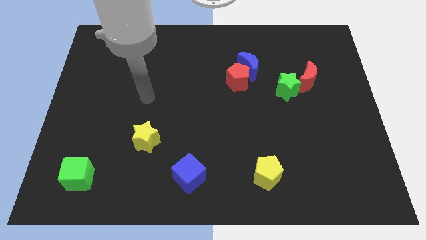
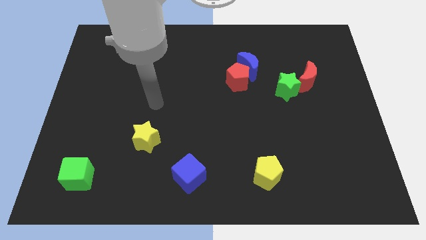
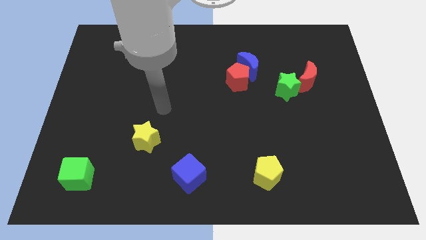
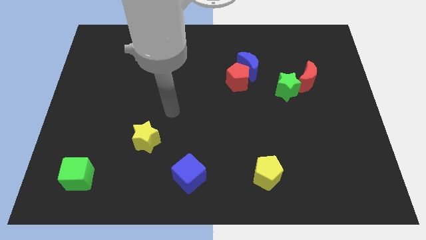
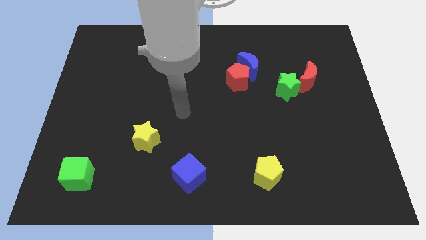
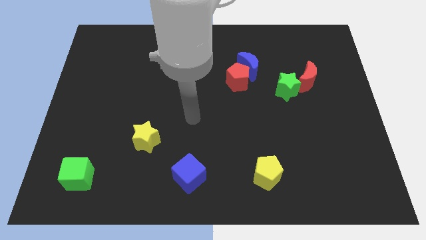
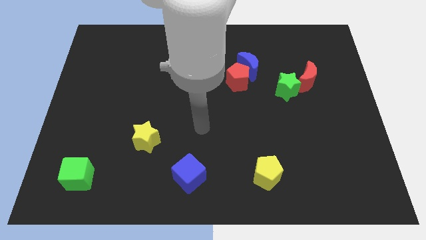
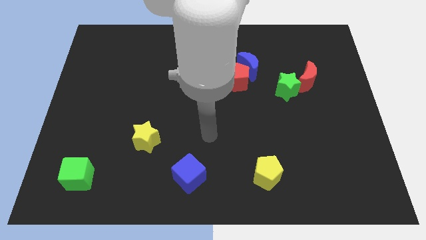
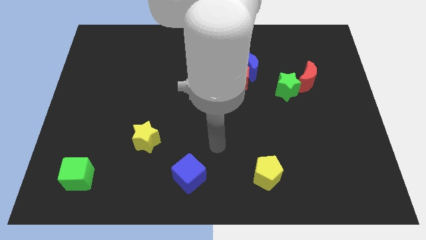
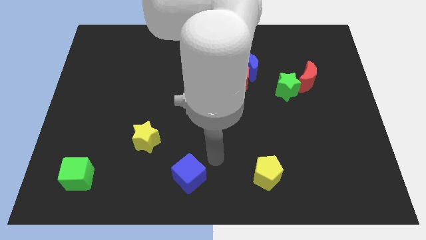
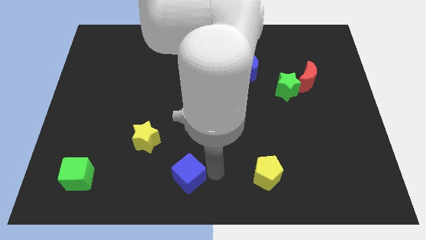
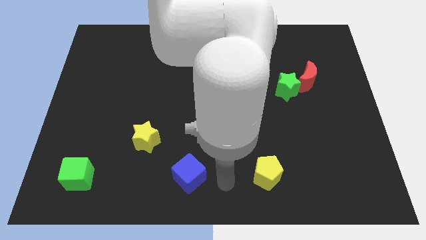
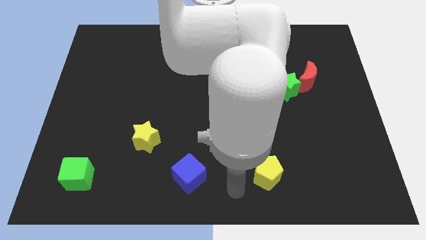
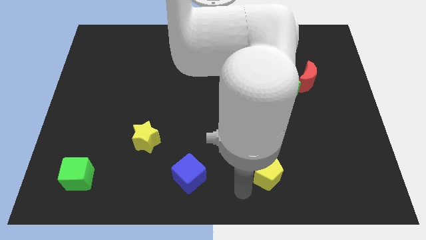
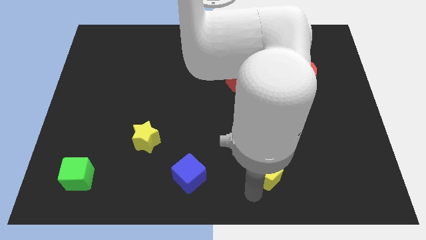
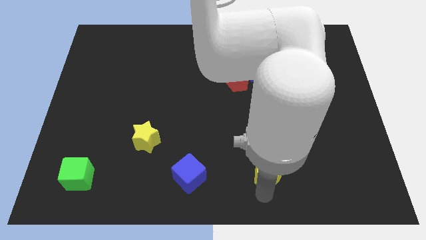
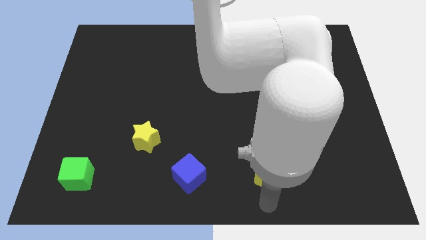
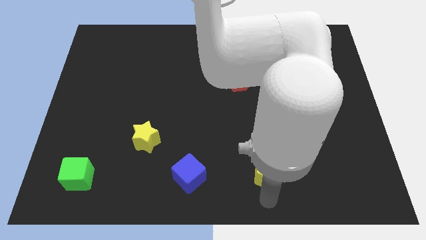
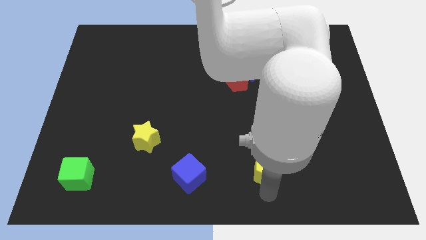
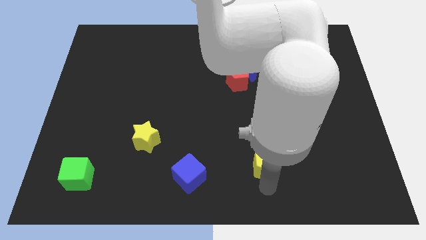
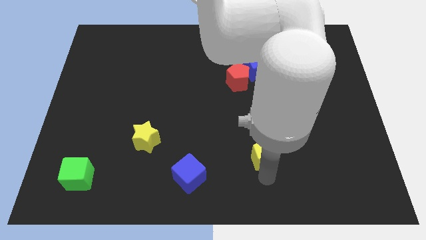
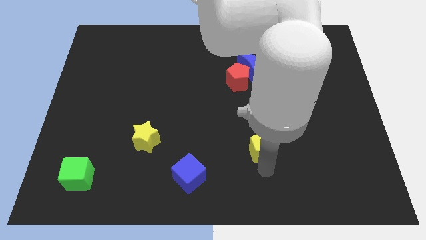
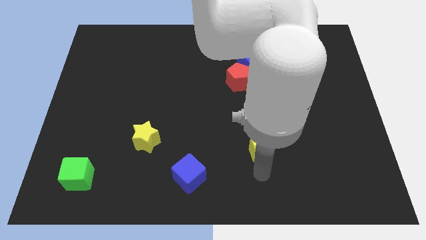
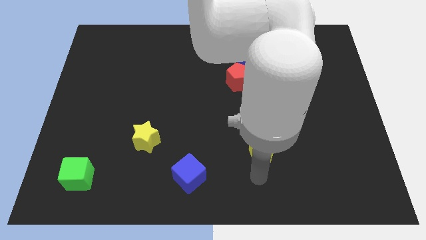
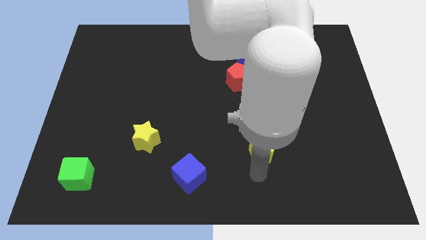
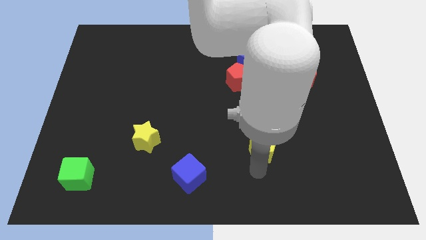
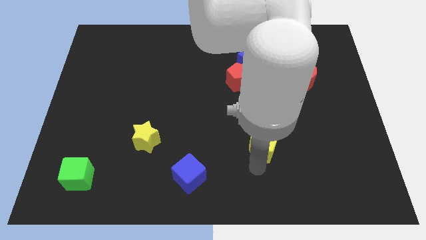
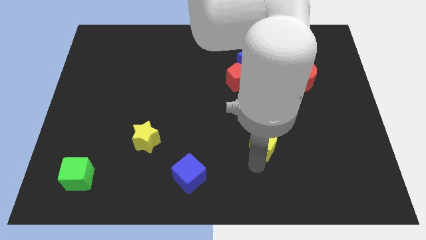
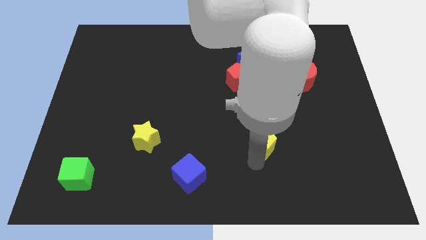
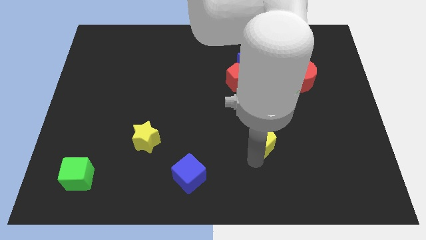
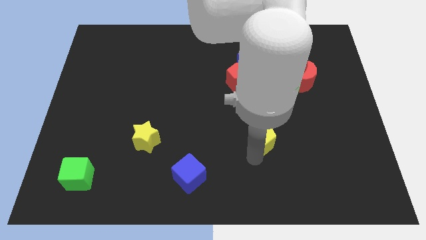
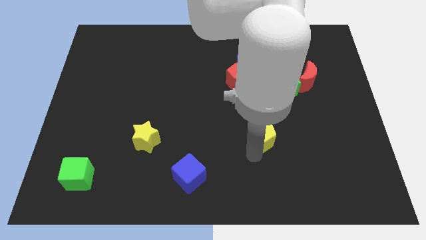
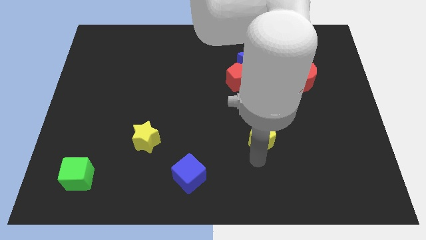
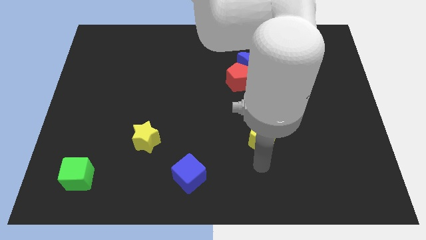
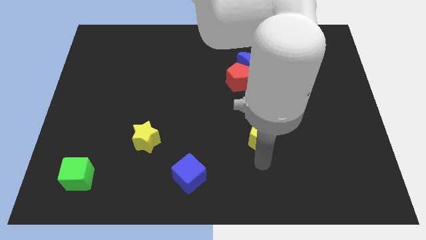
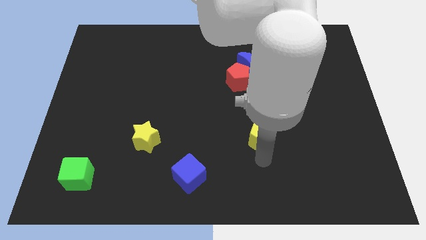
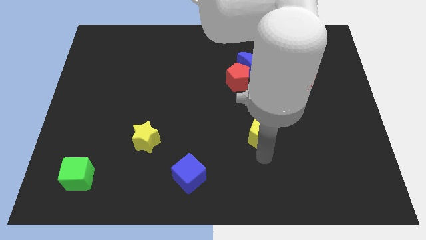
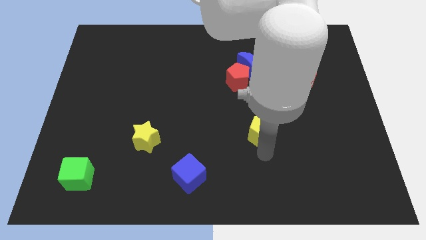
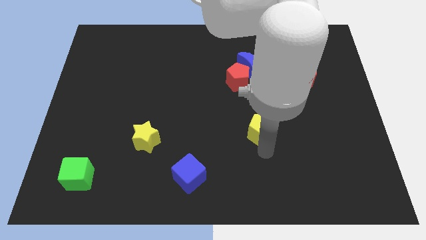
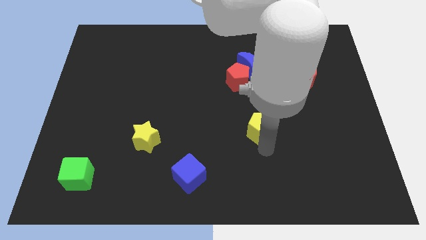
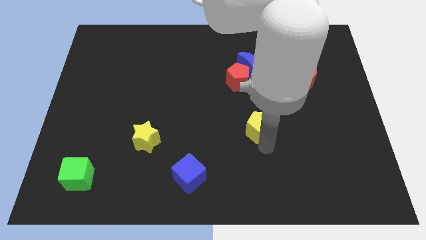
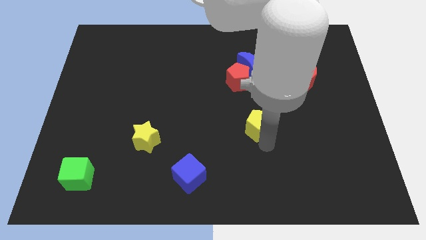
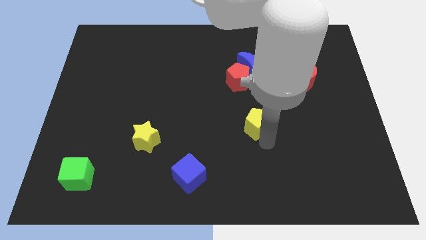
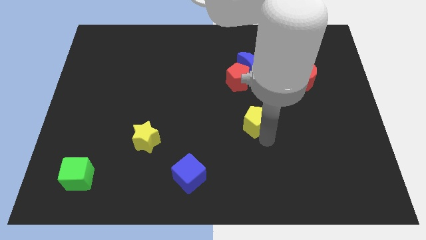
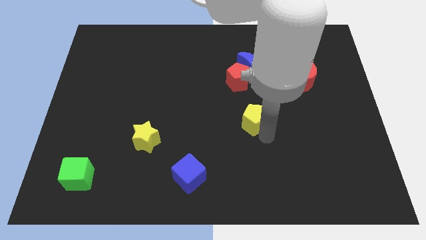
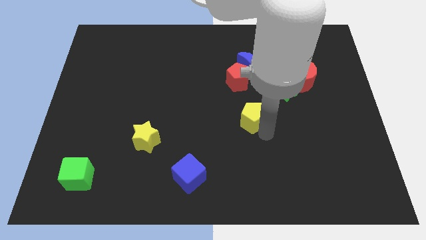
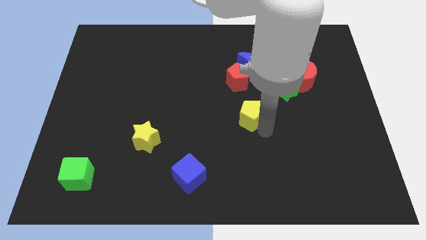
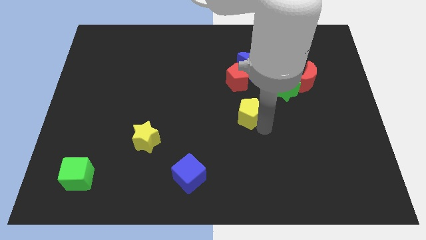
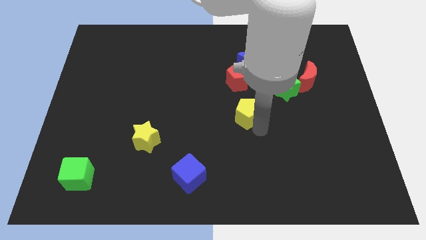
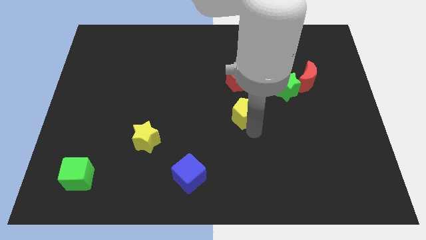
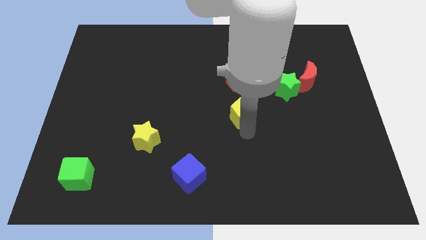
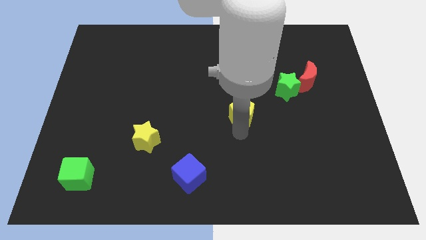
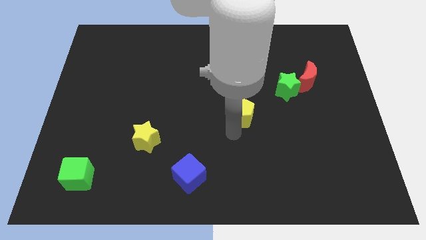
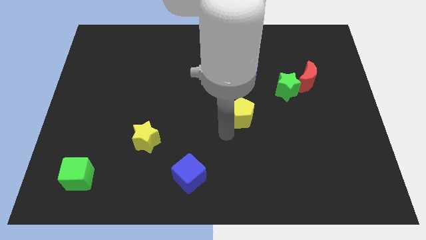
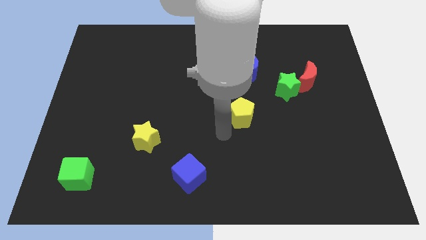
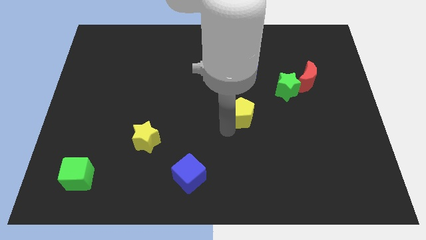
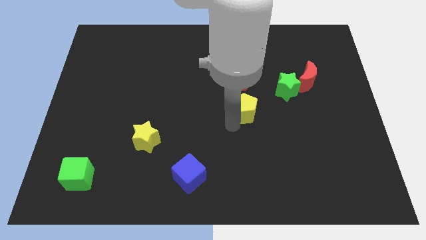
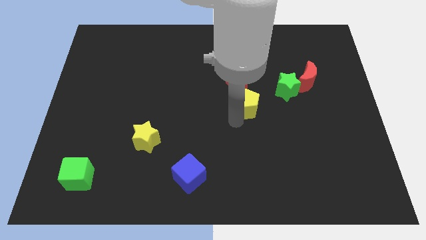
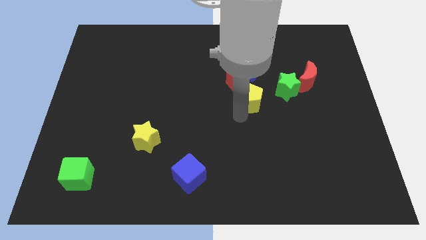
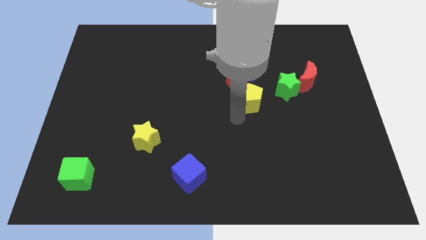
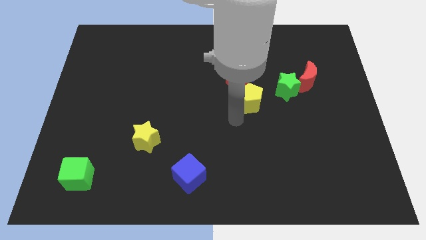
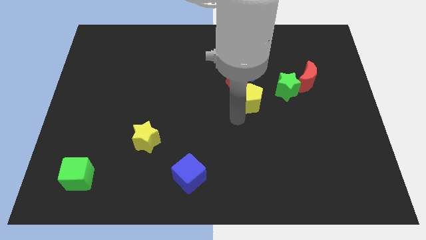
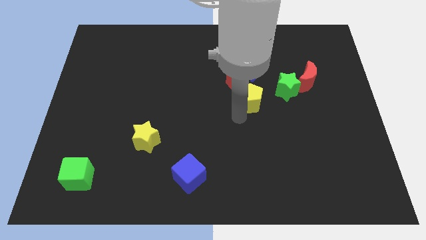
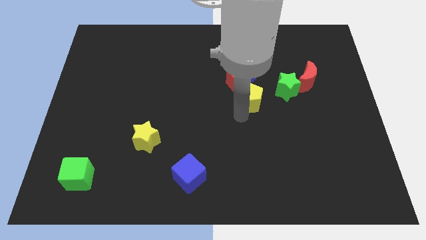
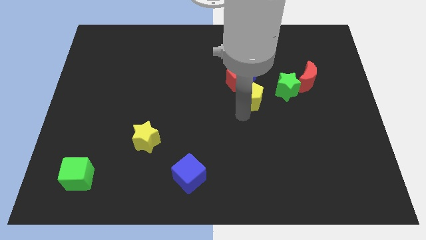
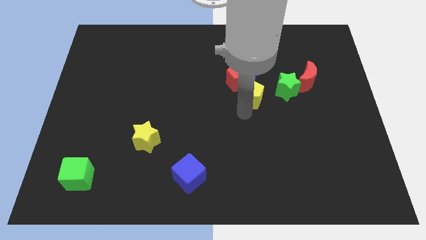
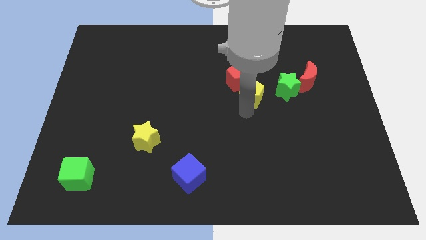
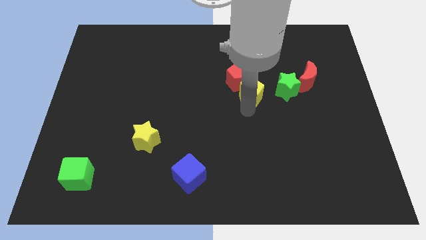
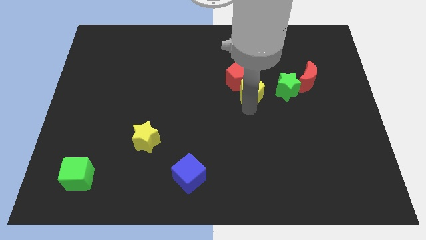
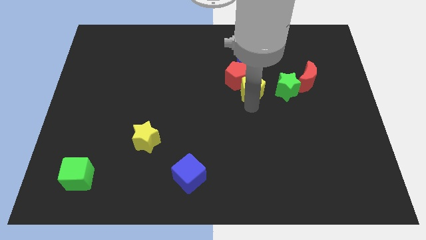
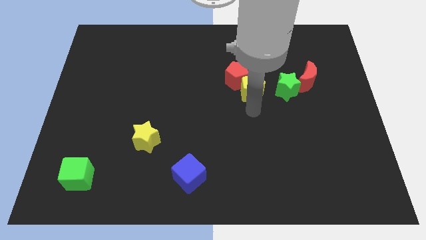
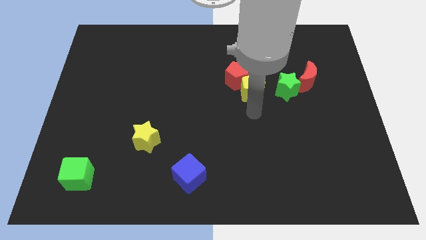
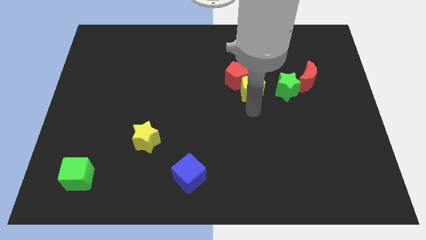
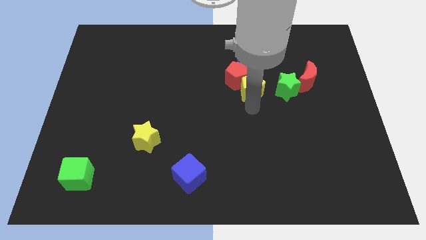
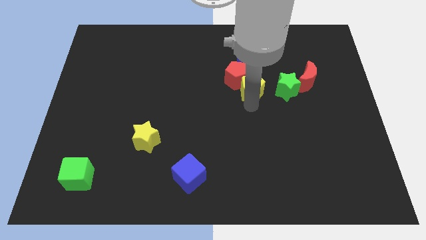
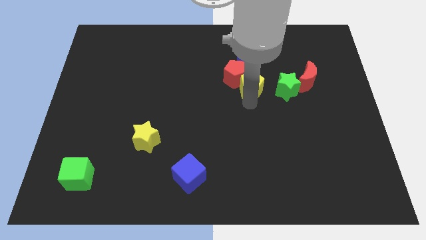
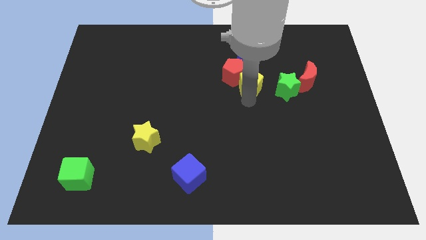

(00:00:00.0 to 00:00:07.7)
put the yellow pentagon towards the blue moon

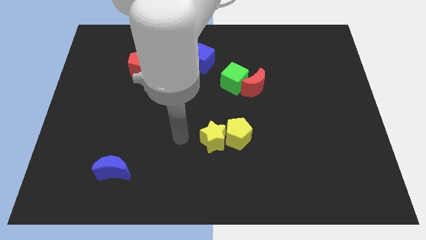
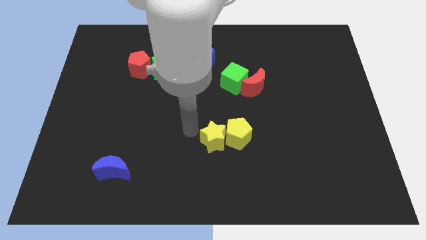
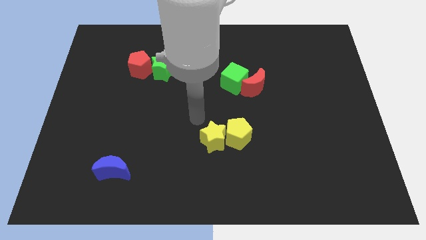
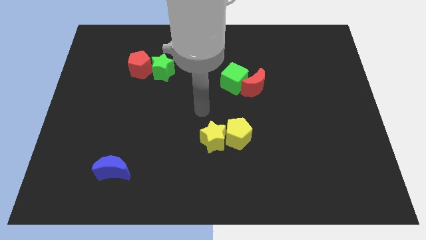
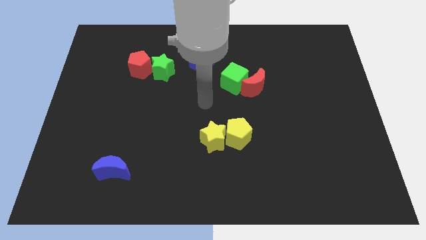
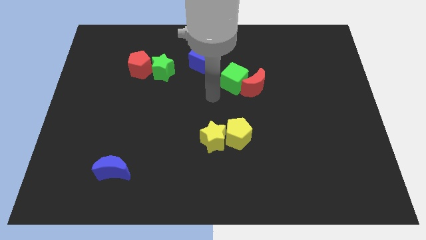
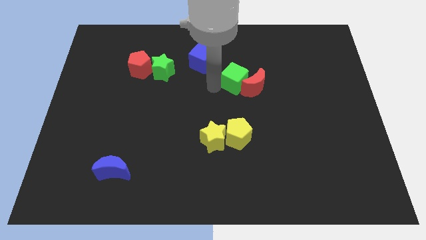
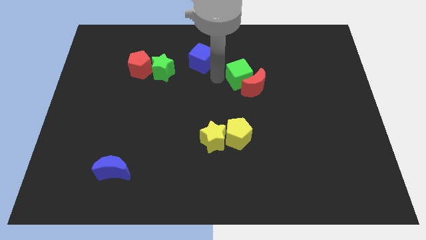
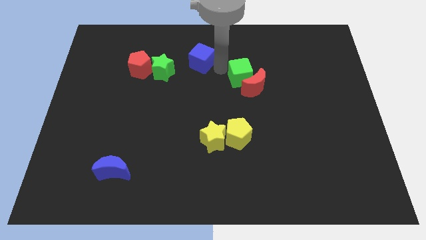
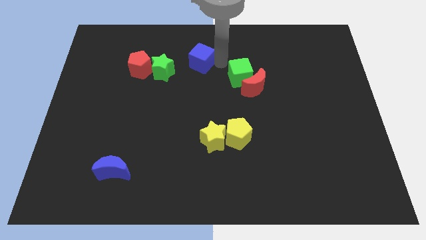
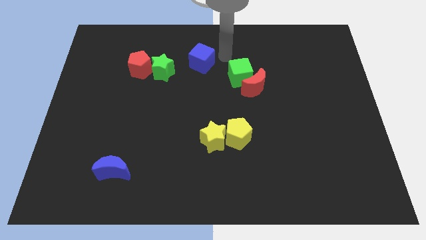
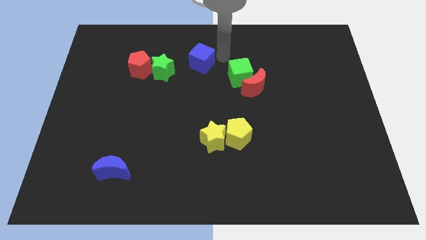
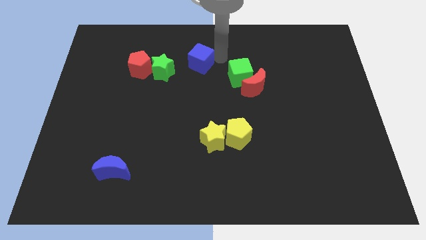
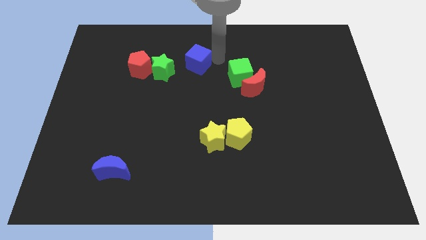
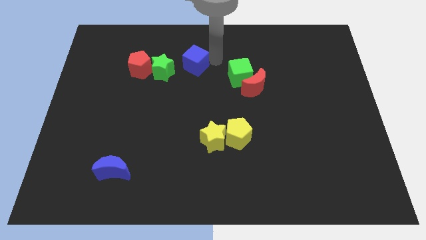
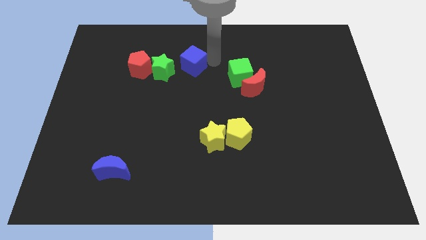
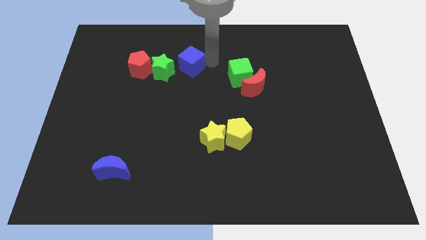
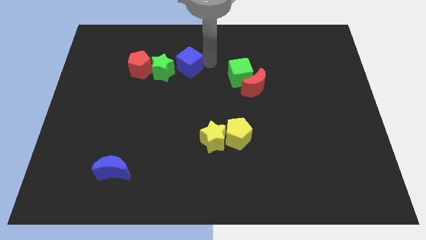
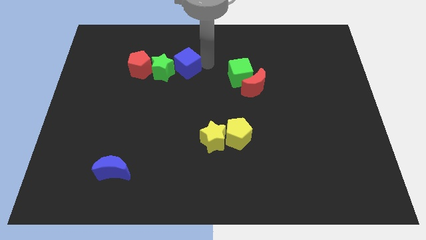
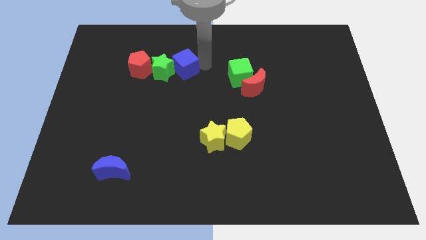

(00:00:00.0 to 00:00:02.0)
slide the blue cube towards the green star
